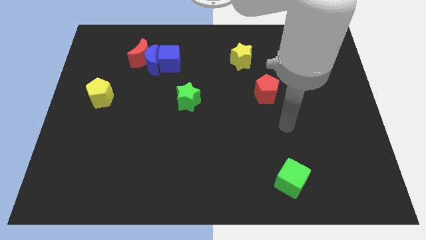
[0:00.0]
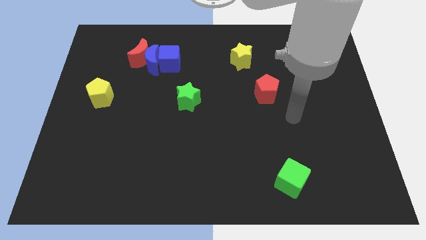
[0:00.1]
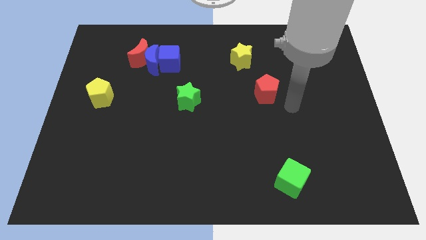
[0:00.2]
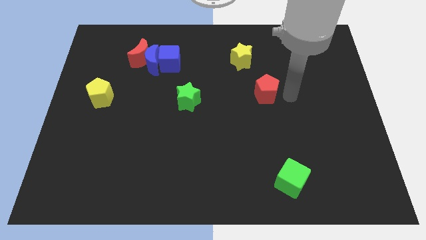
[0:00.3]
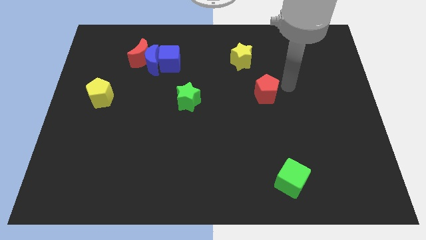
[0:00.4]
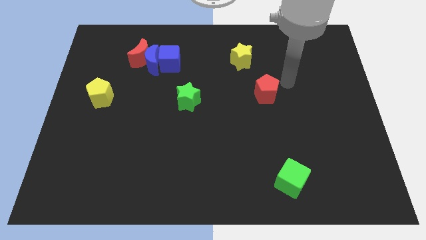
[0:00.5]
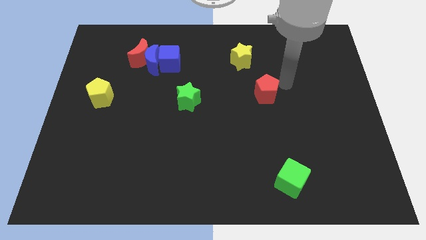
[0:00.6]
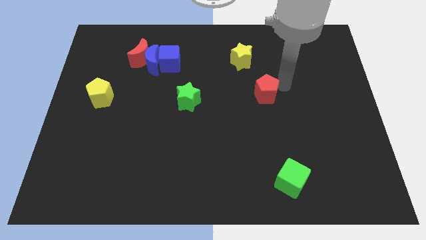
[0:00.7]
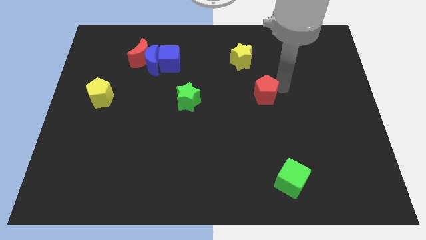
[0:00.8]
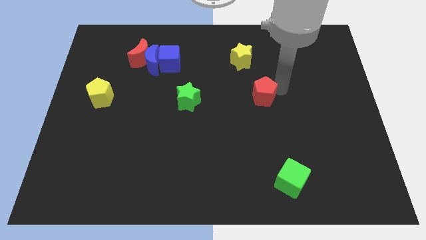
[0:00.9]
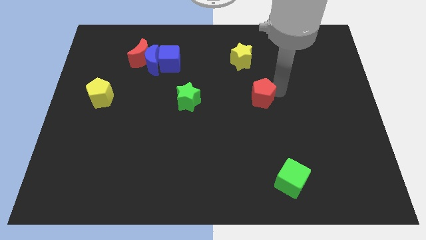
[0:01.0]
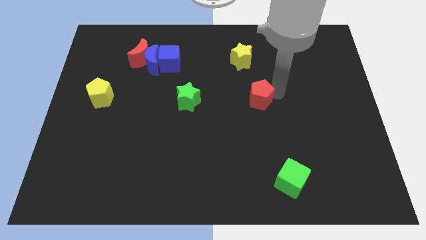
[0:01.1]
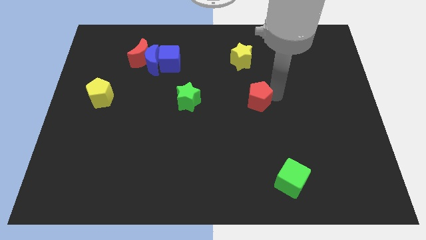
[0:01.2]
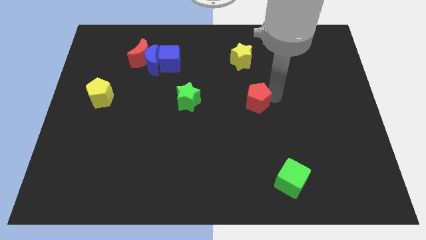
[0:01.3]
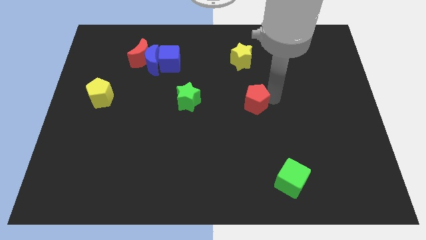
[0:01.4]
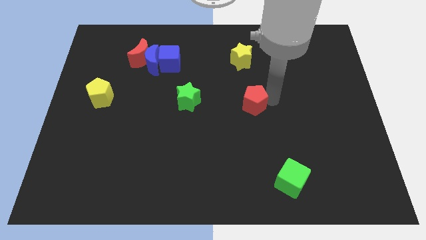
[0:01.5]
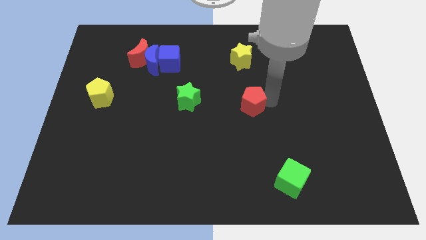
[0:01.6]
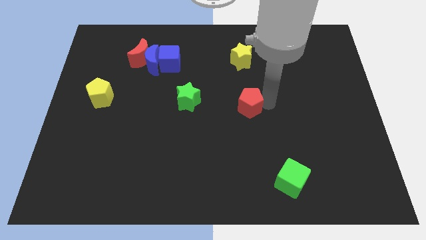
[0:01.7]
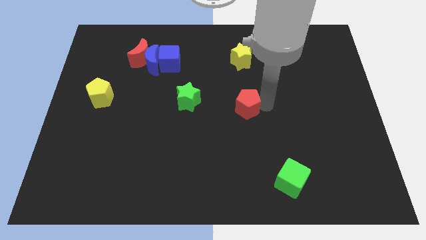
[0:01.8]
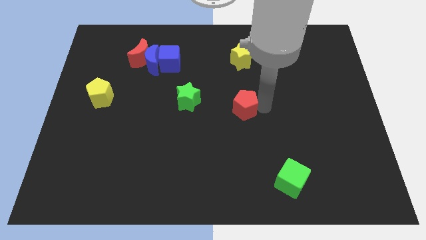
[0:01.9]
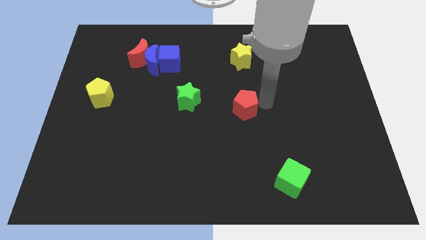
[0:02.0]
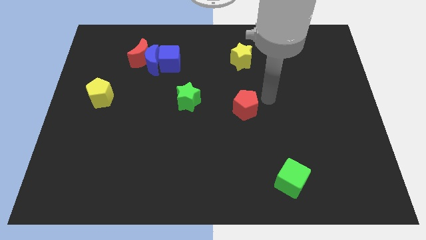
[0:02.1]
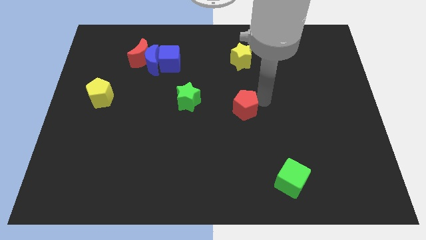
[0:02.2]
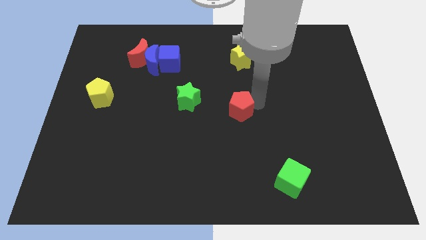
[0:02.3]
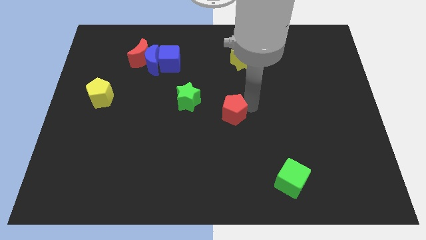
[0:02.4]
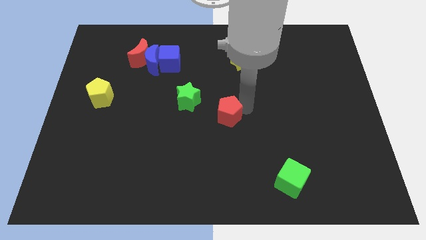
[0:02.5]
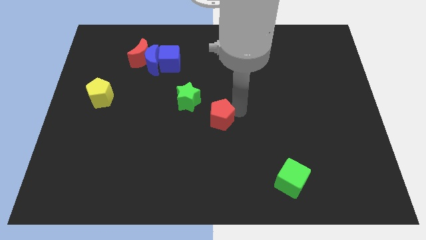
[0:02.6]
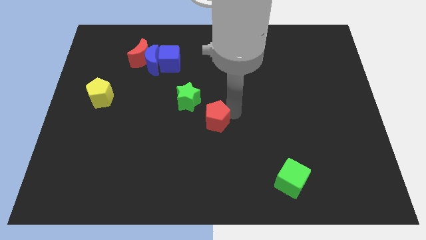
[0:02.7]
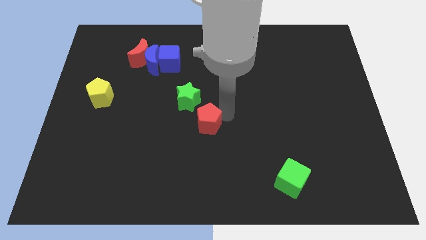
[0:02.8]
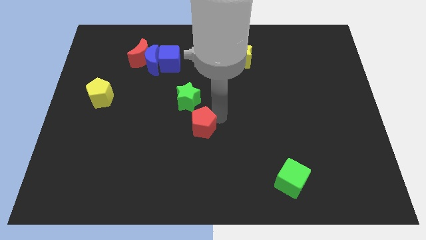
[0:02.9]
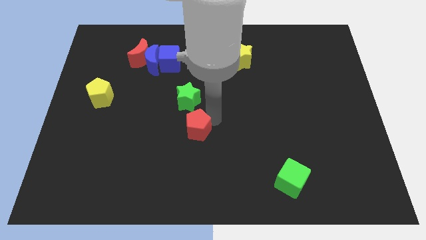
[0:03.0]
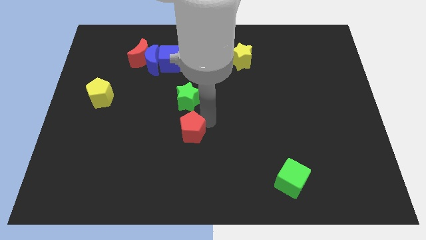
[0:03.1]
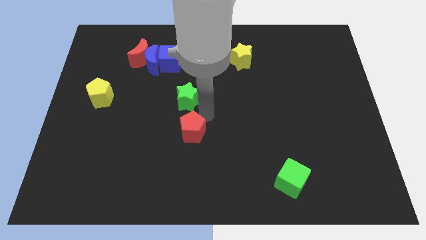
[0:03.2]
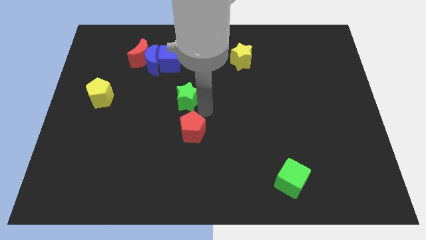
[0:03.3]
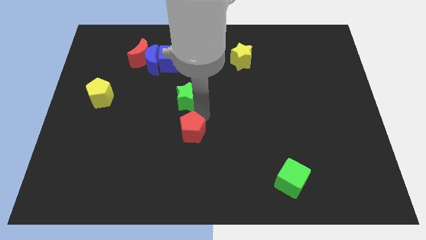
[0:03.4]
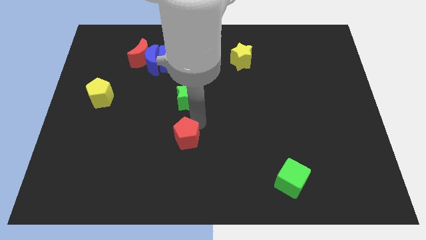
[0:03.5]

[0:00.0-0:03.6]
slide the red pentagon diagonally down and to the left

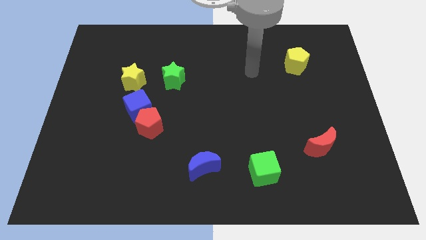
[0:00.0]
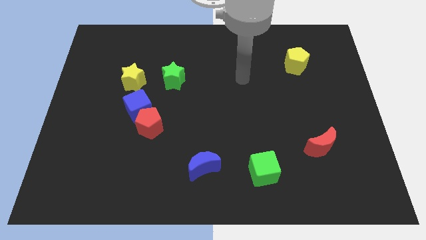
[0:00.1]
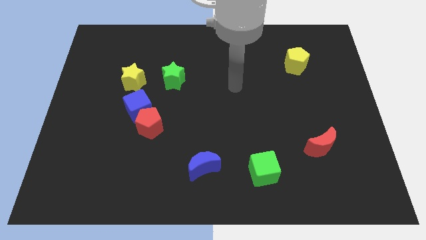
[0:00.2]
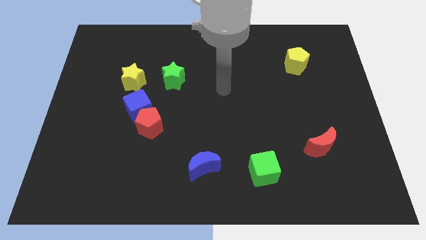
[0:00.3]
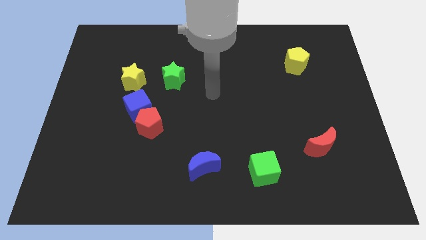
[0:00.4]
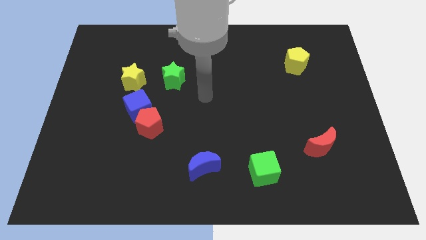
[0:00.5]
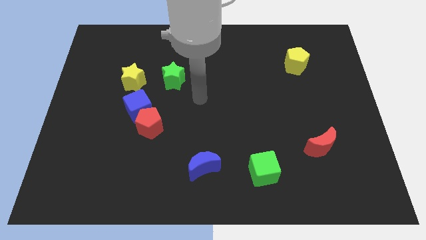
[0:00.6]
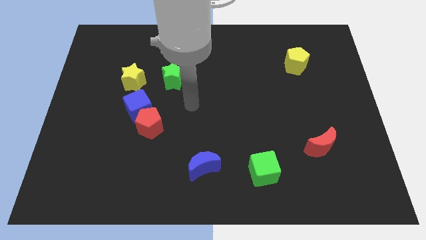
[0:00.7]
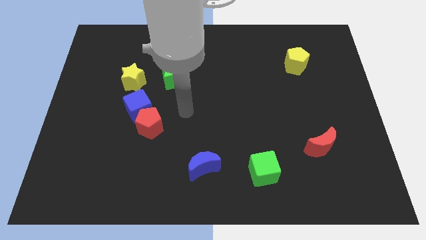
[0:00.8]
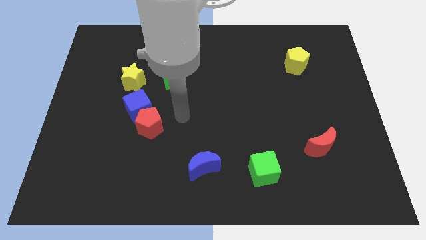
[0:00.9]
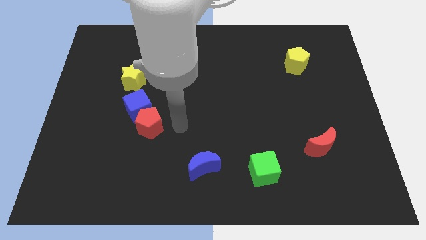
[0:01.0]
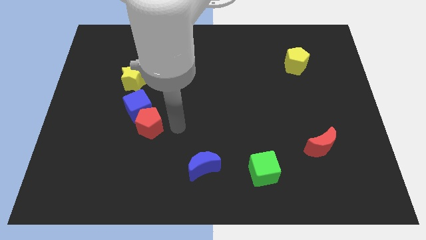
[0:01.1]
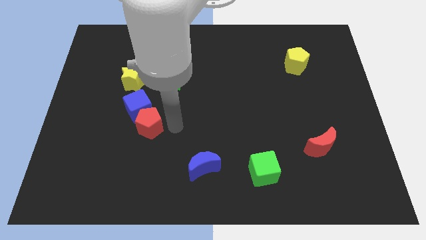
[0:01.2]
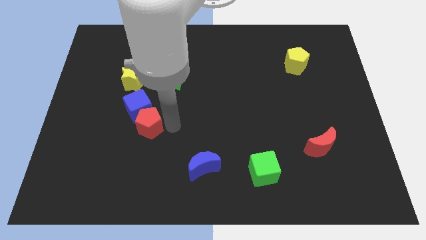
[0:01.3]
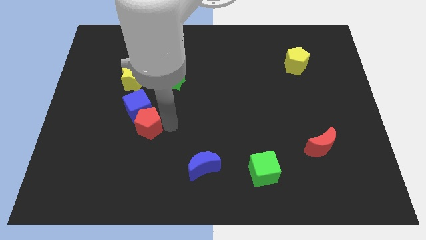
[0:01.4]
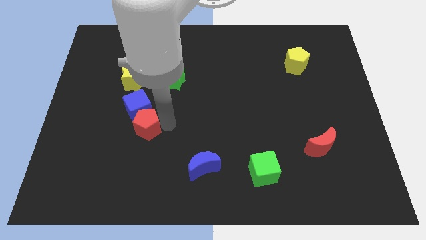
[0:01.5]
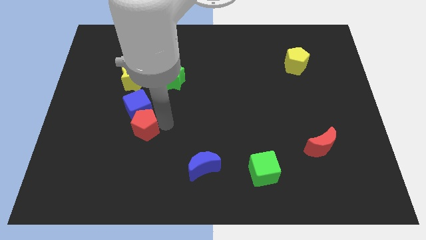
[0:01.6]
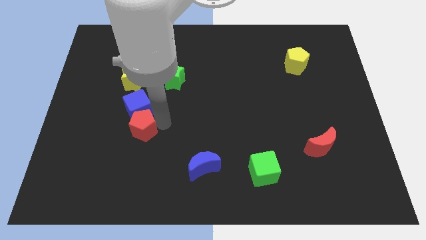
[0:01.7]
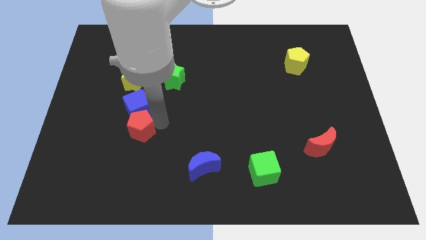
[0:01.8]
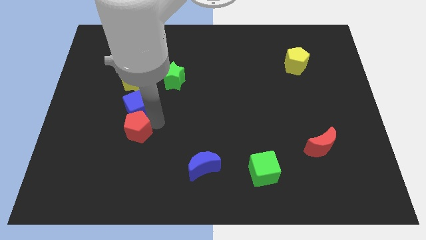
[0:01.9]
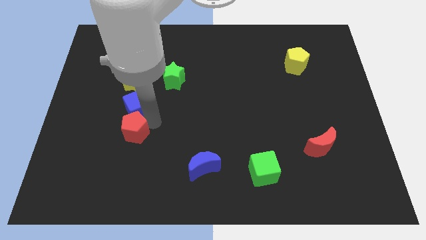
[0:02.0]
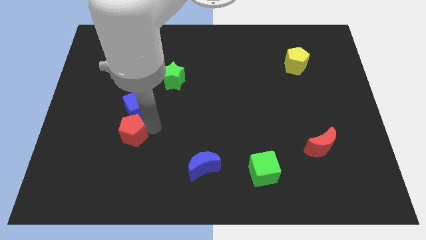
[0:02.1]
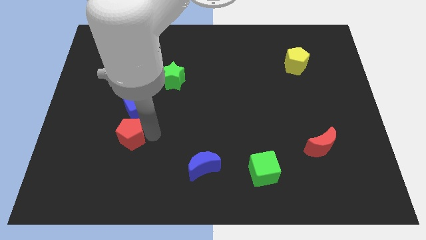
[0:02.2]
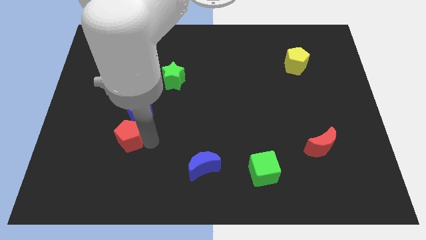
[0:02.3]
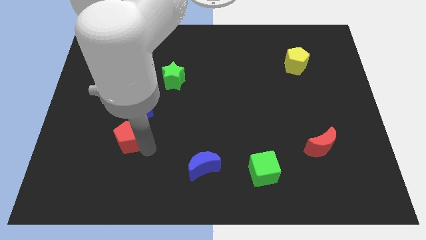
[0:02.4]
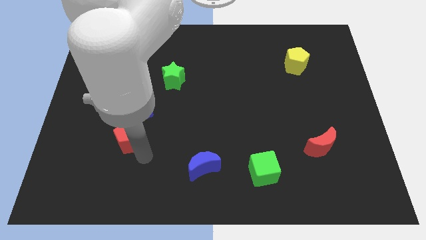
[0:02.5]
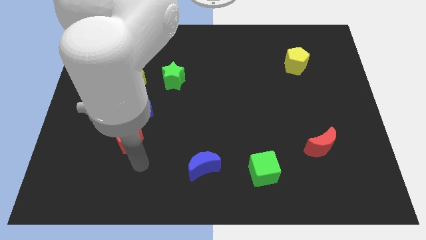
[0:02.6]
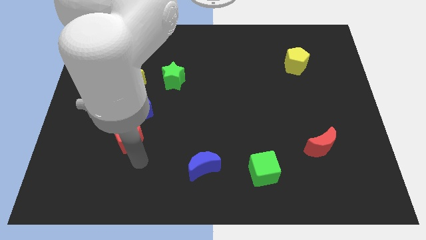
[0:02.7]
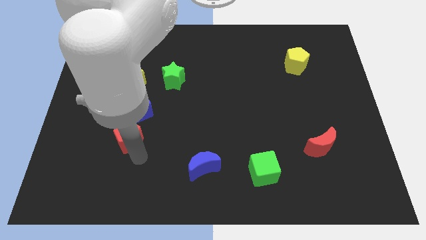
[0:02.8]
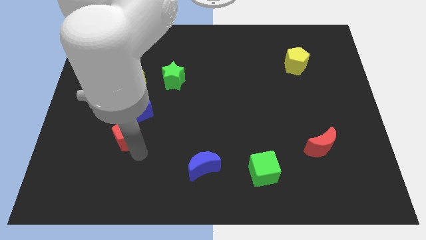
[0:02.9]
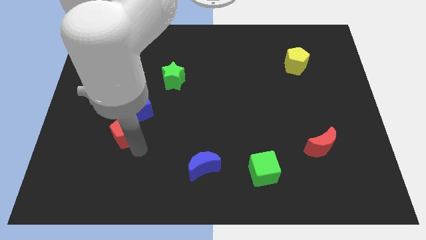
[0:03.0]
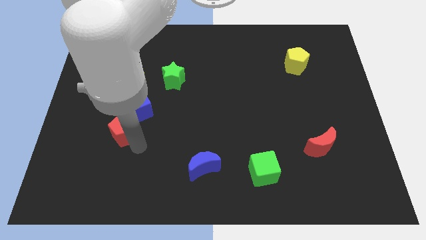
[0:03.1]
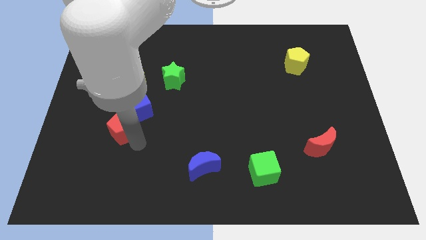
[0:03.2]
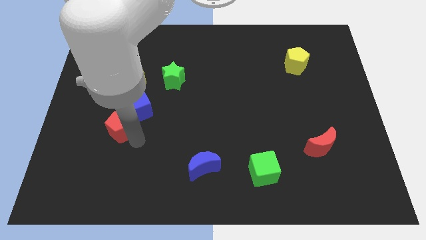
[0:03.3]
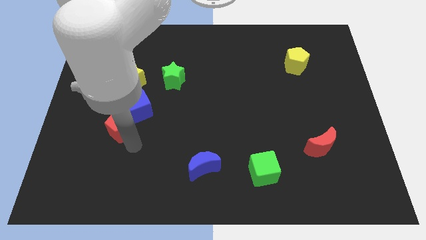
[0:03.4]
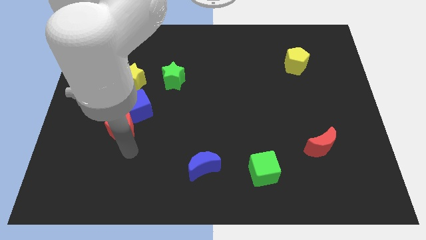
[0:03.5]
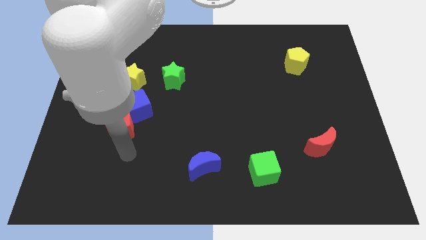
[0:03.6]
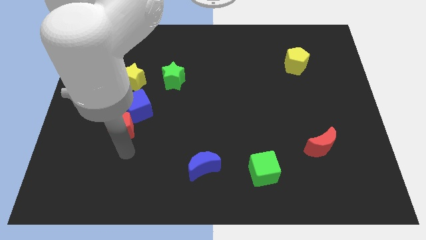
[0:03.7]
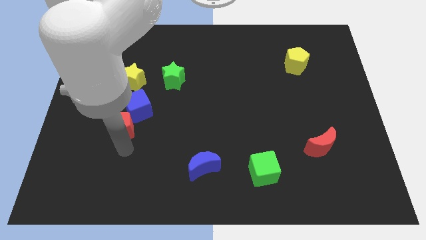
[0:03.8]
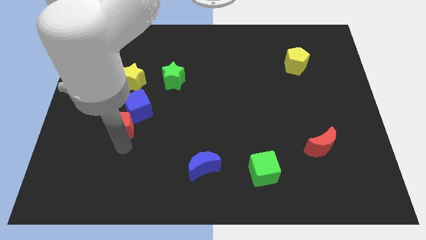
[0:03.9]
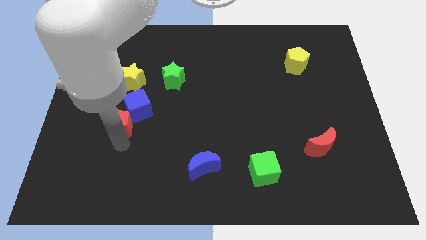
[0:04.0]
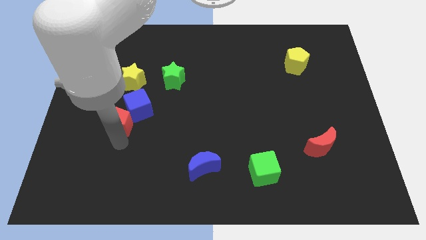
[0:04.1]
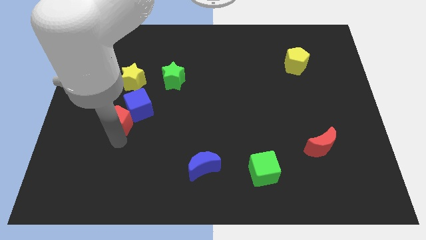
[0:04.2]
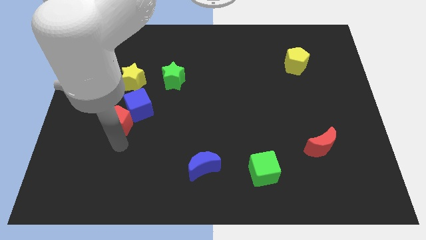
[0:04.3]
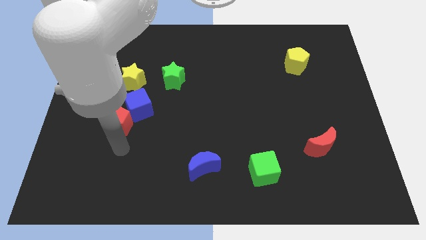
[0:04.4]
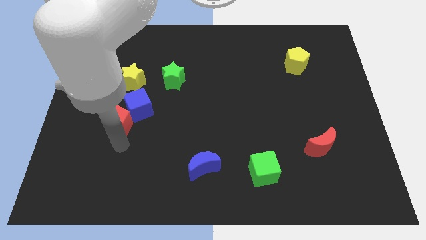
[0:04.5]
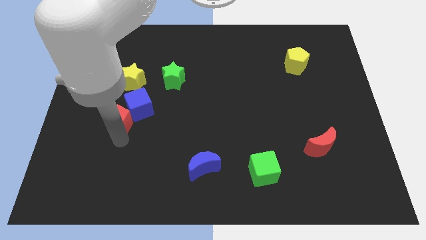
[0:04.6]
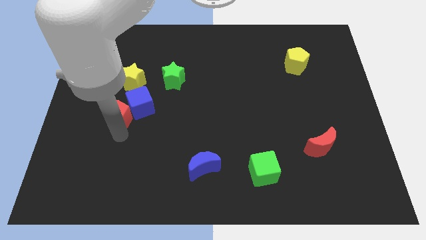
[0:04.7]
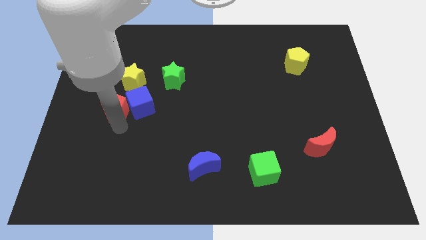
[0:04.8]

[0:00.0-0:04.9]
slightly slide the red pentagon diagonally up and left
